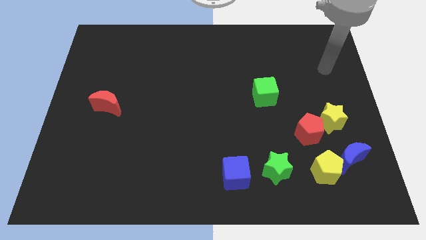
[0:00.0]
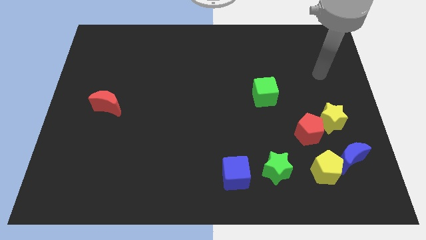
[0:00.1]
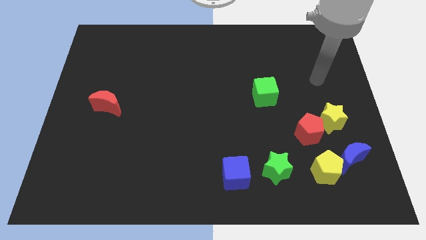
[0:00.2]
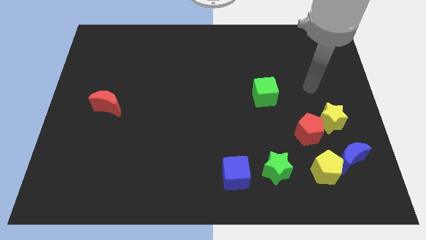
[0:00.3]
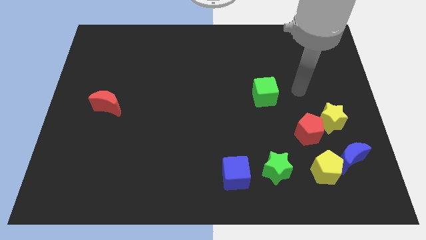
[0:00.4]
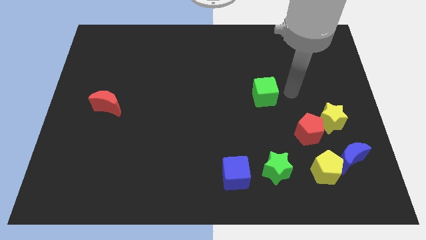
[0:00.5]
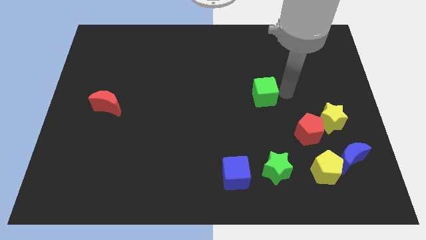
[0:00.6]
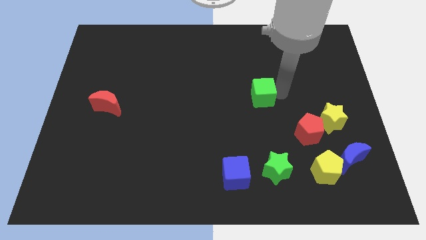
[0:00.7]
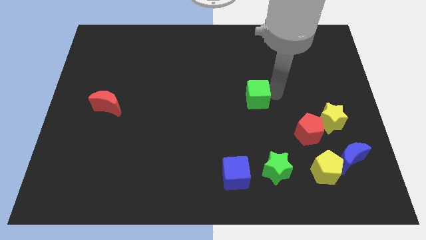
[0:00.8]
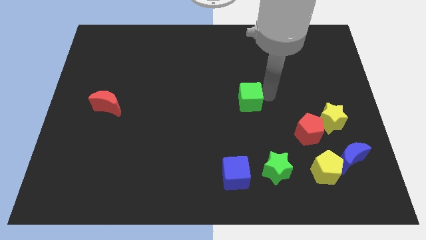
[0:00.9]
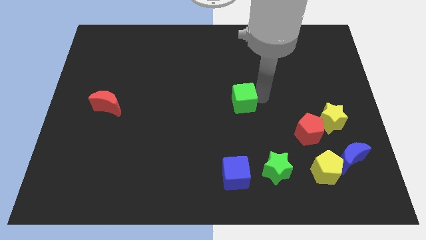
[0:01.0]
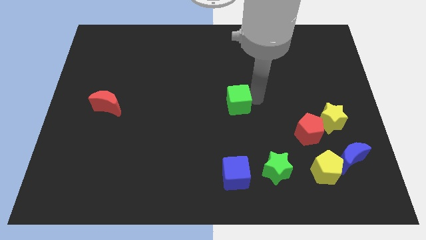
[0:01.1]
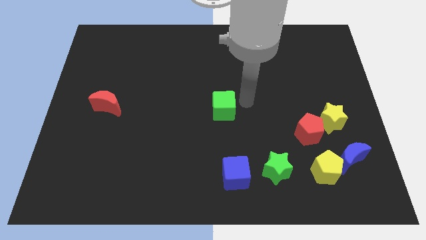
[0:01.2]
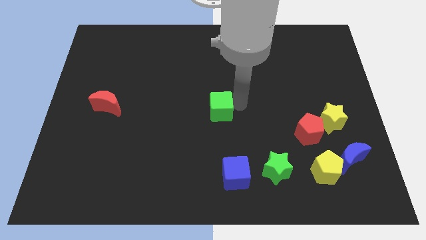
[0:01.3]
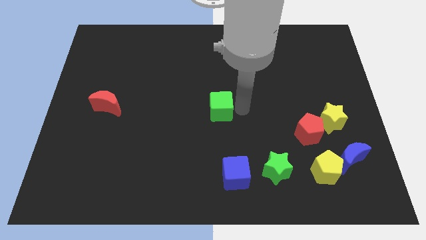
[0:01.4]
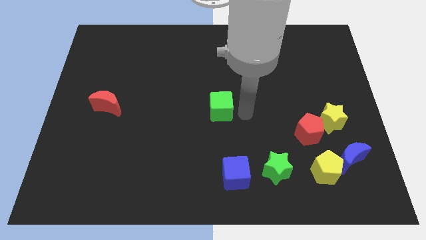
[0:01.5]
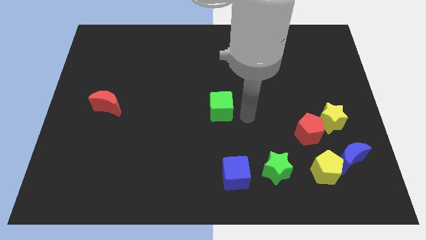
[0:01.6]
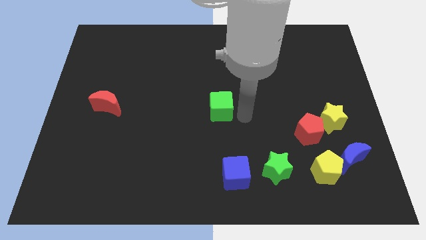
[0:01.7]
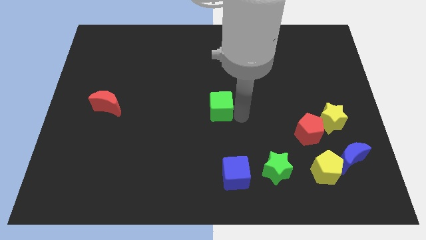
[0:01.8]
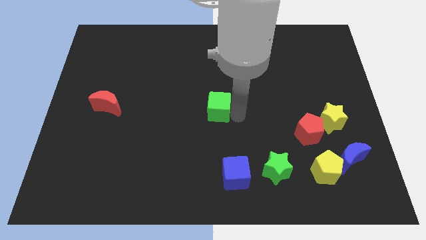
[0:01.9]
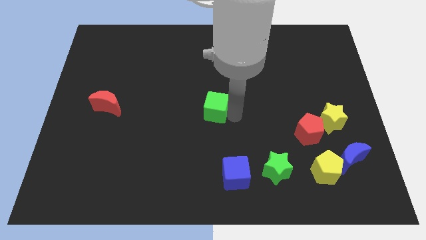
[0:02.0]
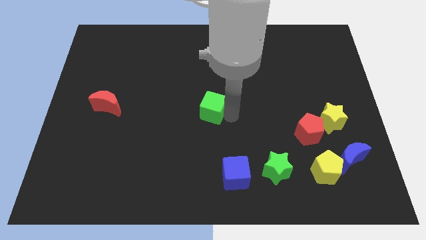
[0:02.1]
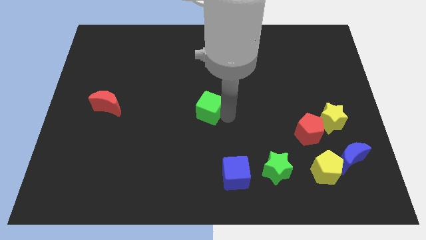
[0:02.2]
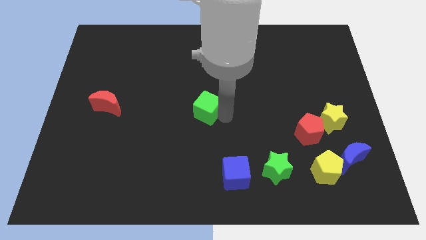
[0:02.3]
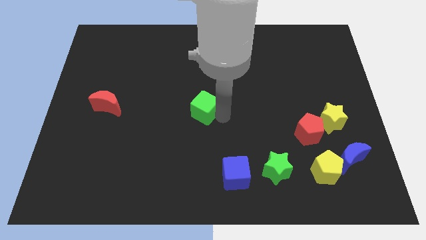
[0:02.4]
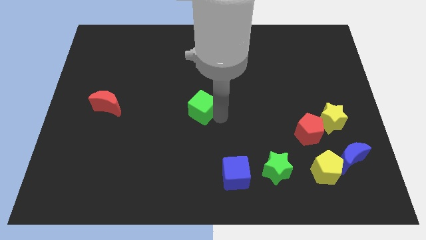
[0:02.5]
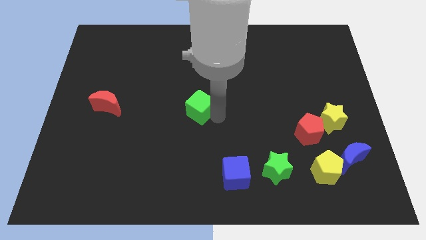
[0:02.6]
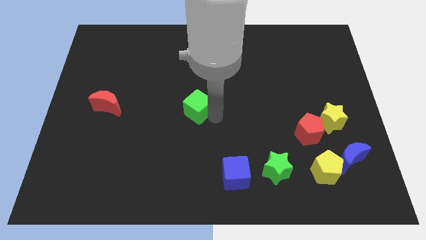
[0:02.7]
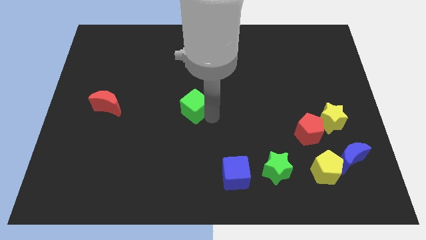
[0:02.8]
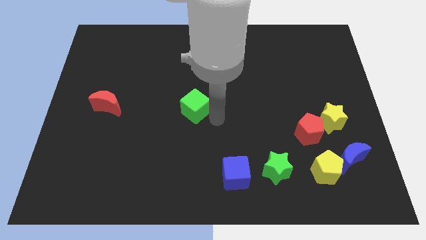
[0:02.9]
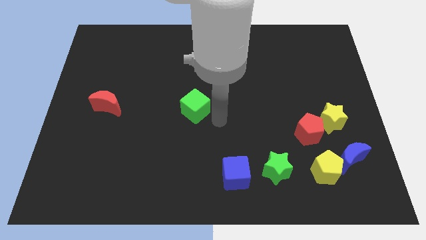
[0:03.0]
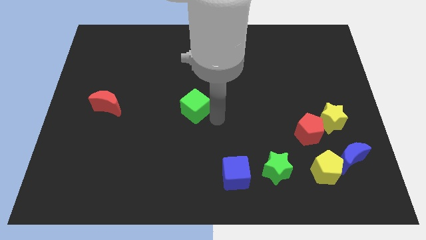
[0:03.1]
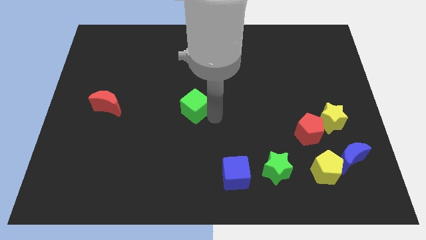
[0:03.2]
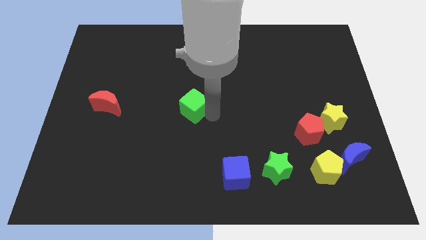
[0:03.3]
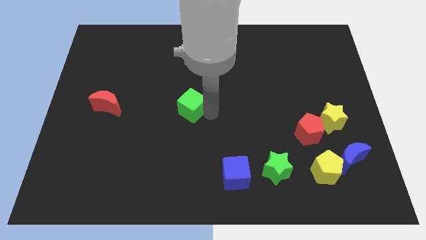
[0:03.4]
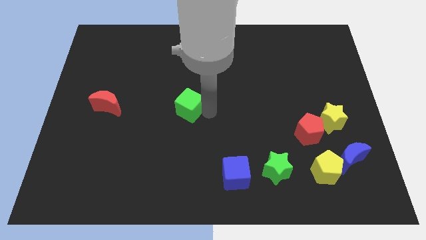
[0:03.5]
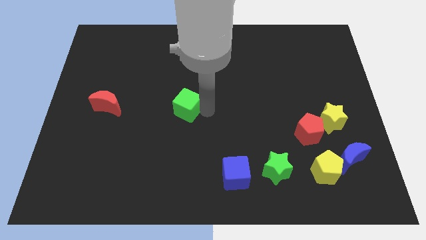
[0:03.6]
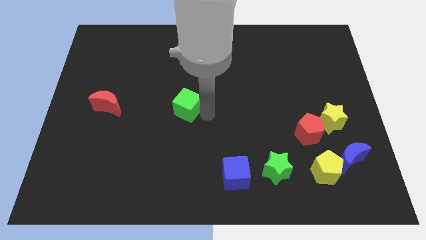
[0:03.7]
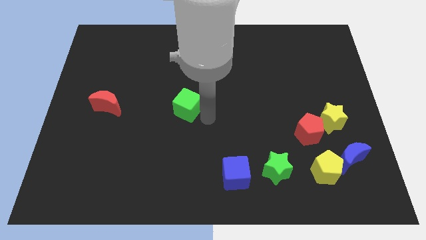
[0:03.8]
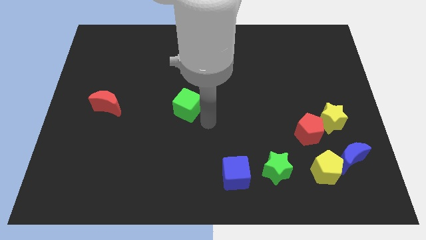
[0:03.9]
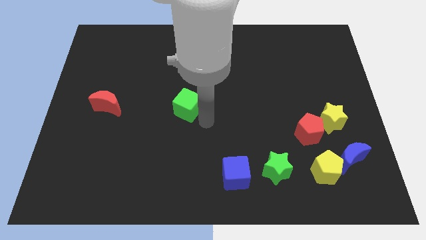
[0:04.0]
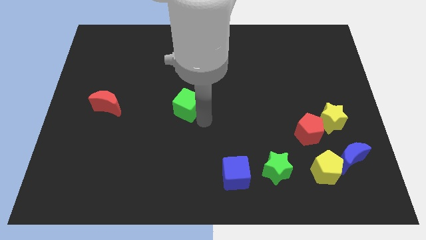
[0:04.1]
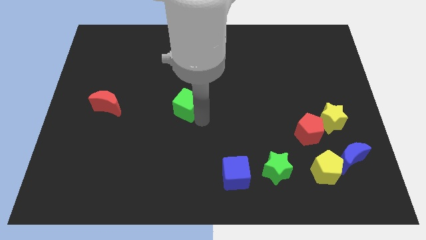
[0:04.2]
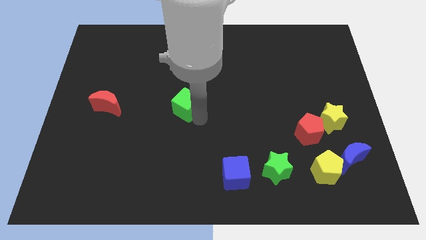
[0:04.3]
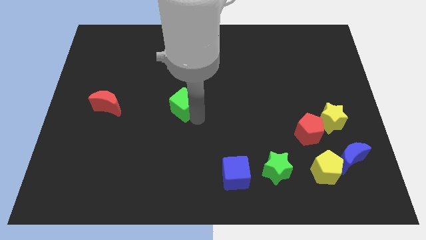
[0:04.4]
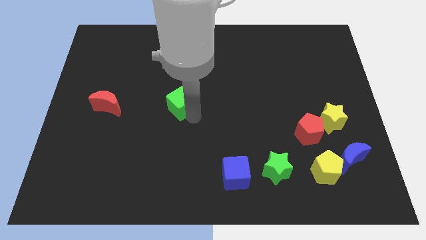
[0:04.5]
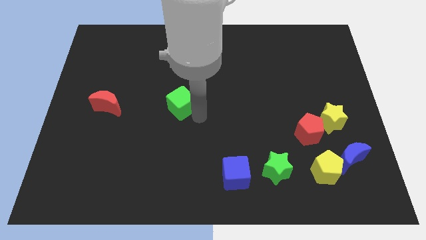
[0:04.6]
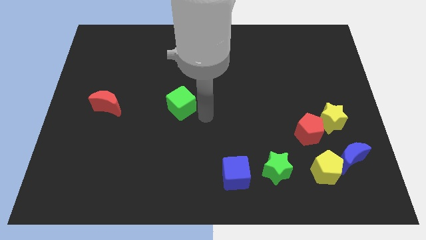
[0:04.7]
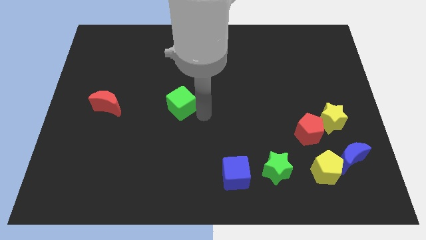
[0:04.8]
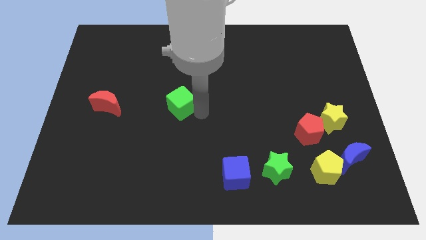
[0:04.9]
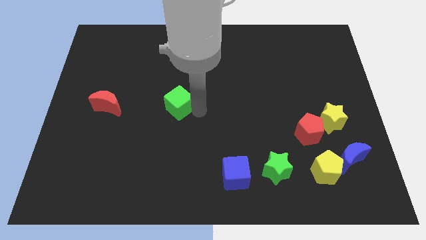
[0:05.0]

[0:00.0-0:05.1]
slide the green cube left

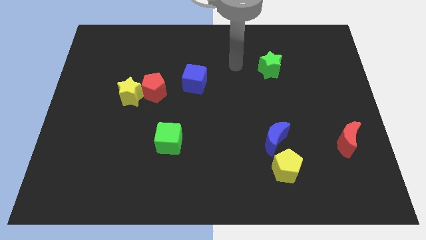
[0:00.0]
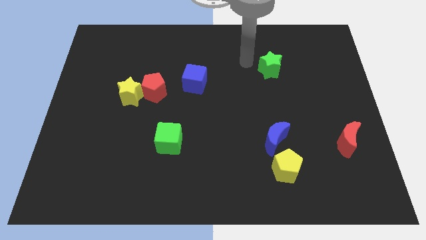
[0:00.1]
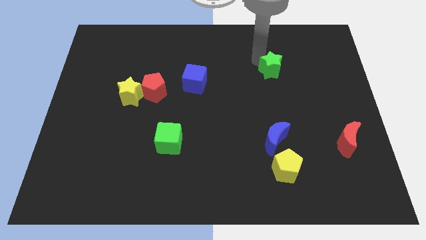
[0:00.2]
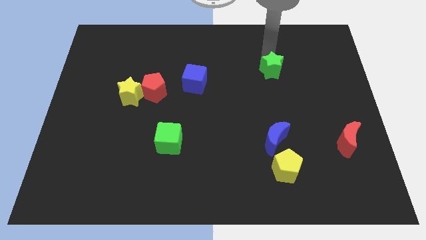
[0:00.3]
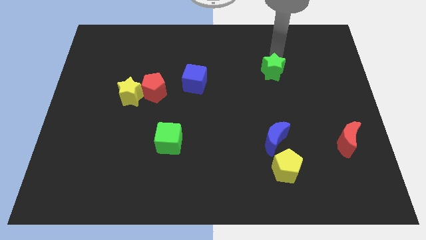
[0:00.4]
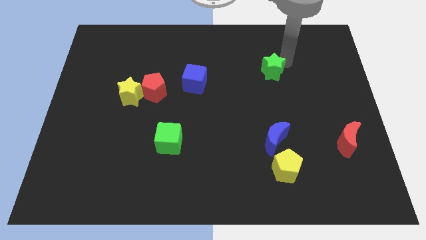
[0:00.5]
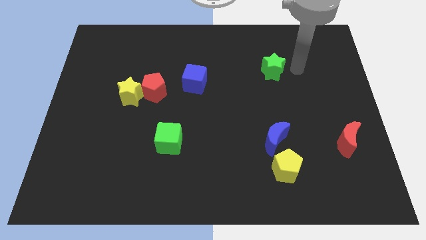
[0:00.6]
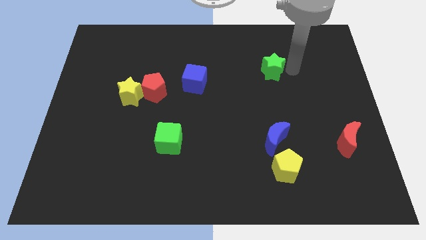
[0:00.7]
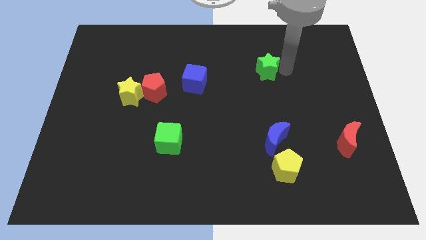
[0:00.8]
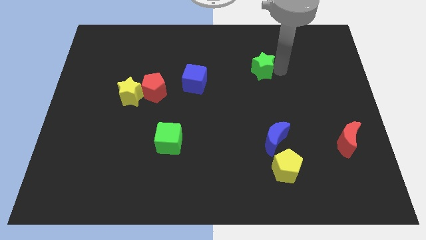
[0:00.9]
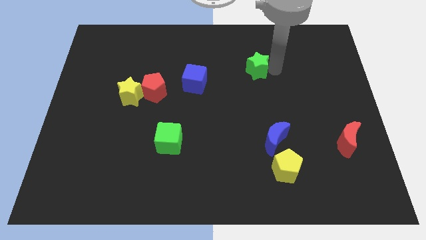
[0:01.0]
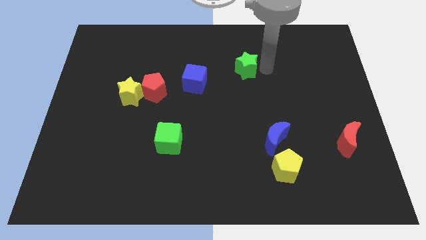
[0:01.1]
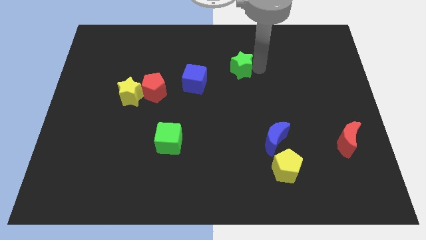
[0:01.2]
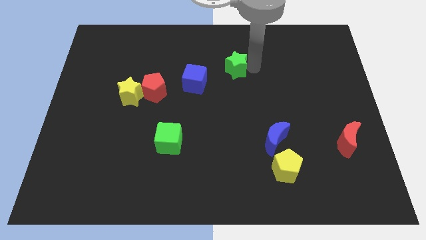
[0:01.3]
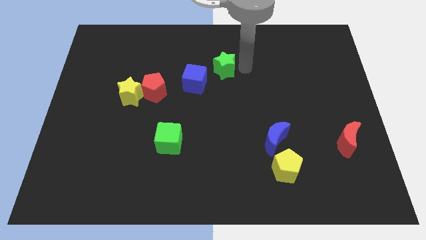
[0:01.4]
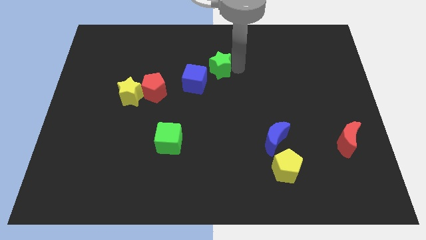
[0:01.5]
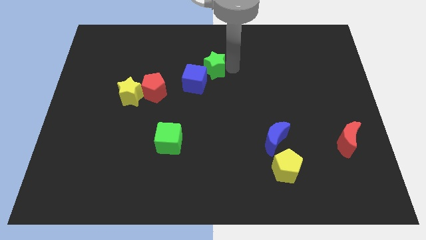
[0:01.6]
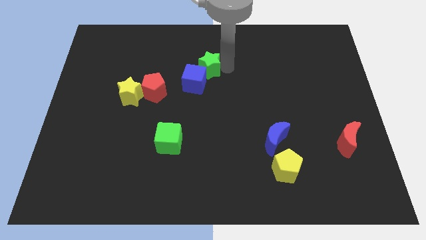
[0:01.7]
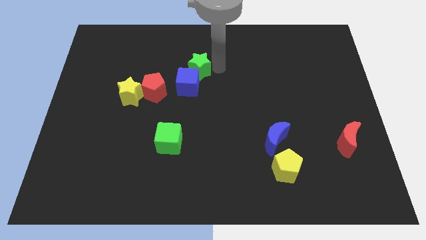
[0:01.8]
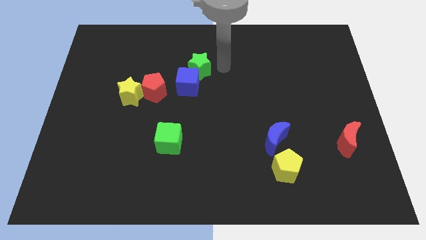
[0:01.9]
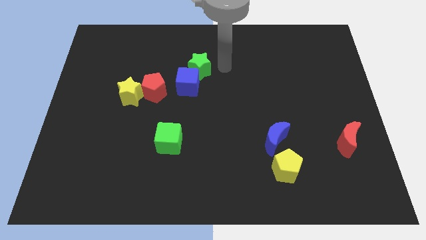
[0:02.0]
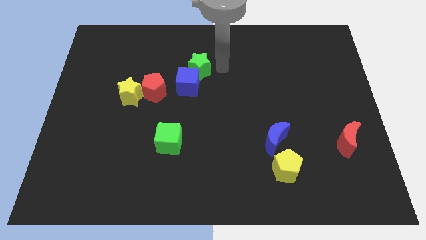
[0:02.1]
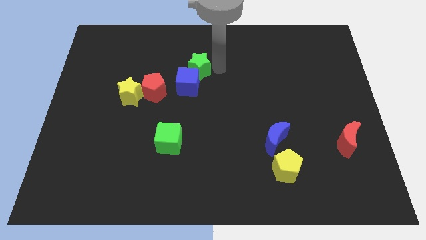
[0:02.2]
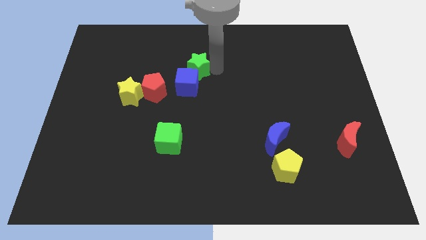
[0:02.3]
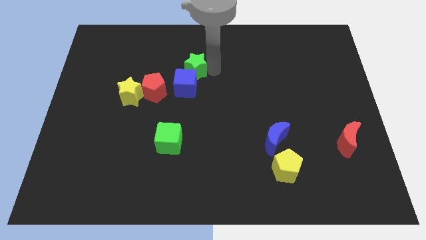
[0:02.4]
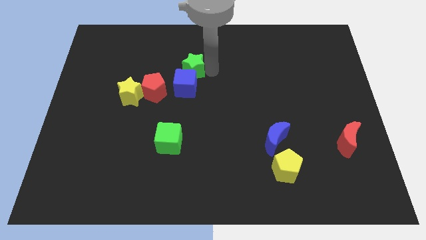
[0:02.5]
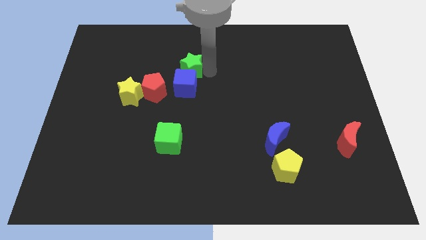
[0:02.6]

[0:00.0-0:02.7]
slide the green star left

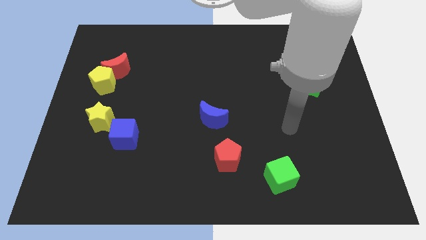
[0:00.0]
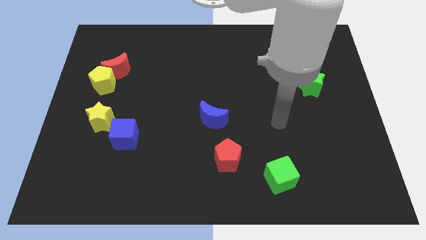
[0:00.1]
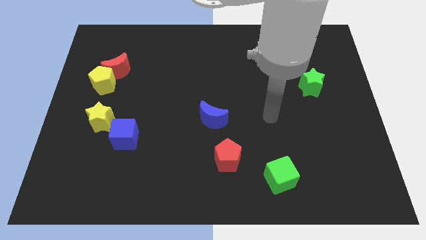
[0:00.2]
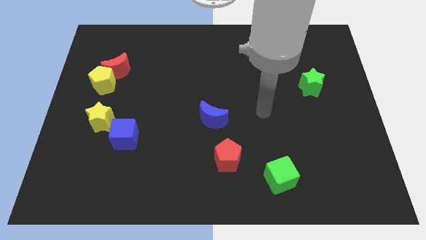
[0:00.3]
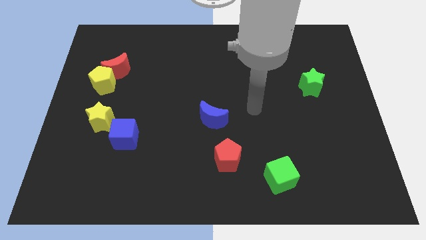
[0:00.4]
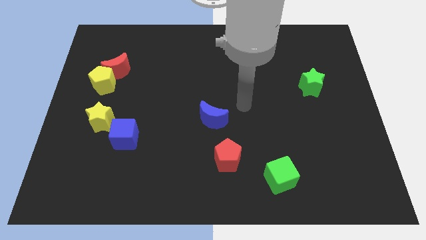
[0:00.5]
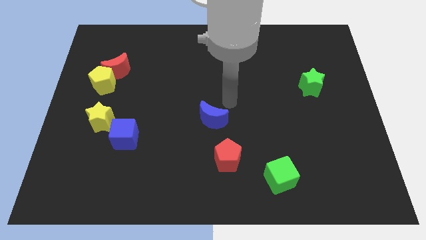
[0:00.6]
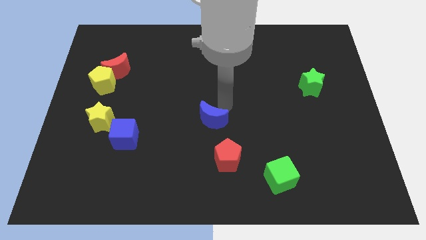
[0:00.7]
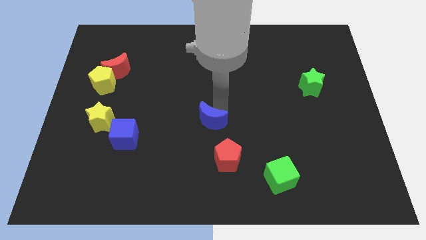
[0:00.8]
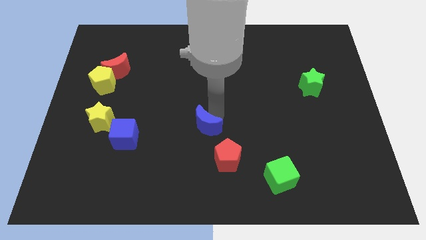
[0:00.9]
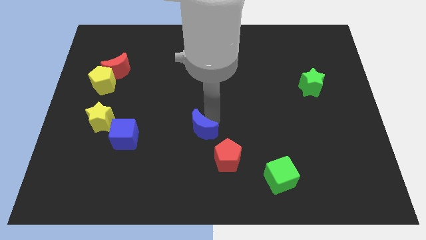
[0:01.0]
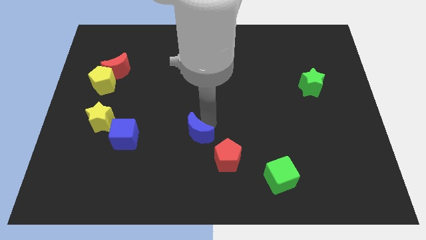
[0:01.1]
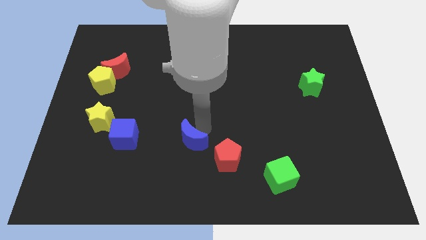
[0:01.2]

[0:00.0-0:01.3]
slightly push the blue moon diagonally down and to the left
